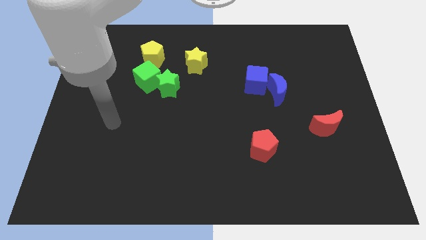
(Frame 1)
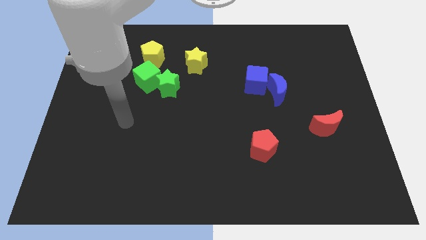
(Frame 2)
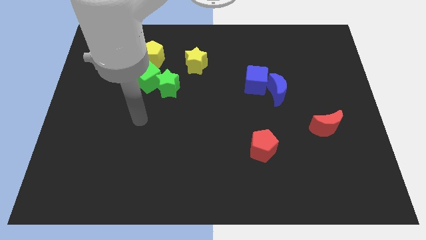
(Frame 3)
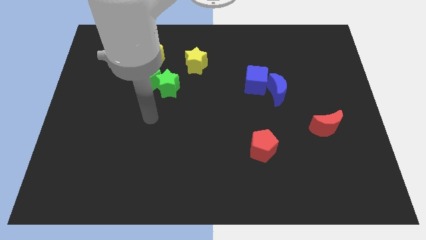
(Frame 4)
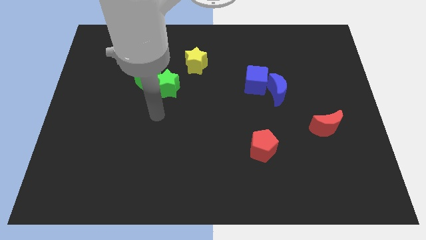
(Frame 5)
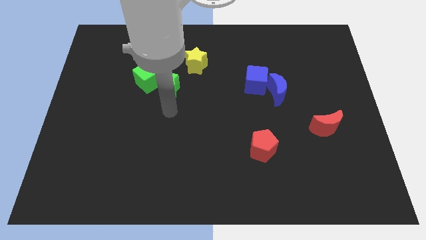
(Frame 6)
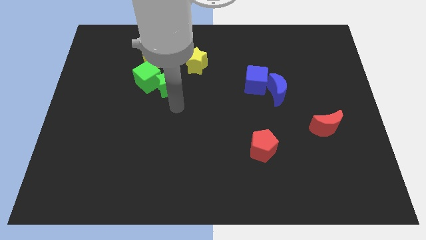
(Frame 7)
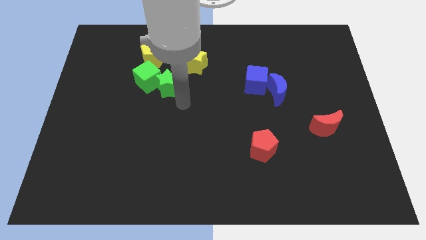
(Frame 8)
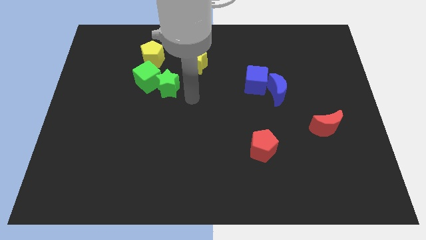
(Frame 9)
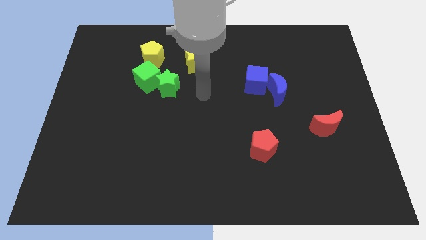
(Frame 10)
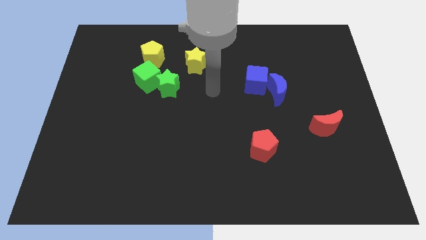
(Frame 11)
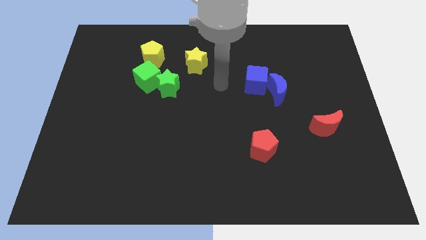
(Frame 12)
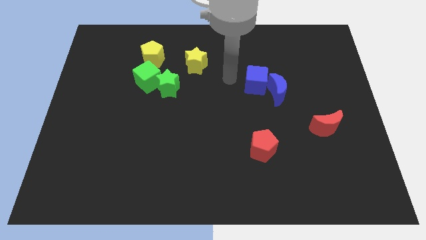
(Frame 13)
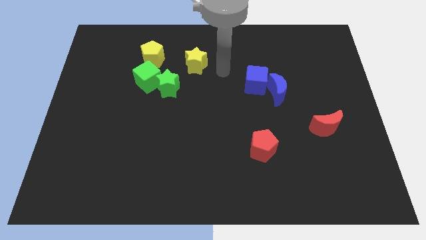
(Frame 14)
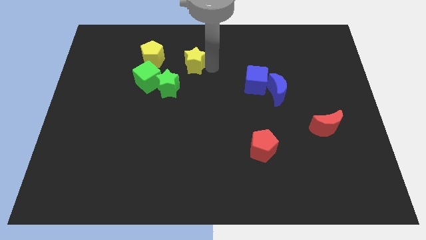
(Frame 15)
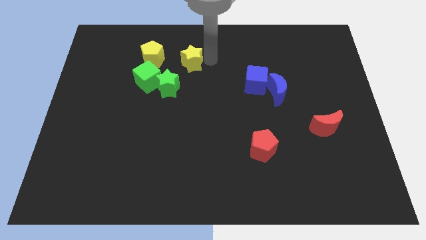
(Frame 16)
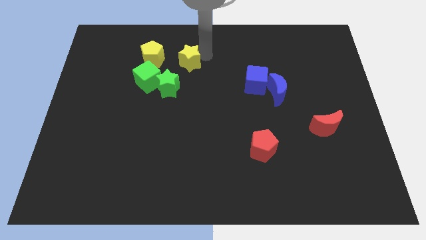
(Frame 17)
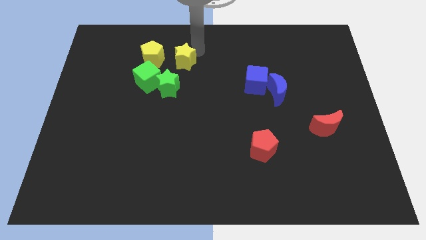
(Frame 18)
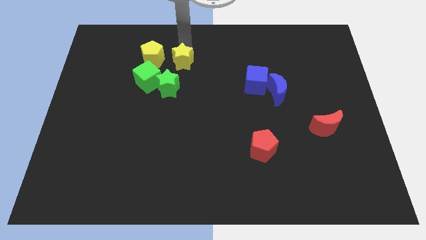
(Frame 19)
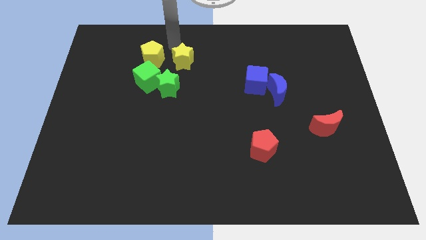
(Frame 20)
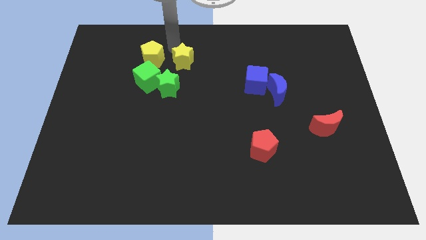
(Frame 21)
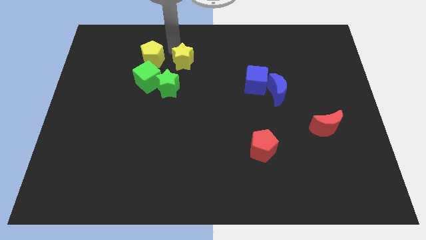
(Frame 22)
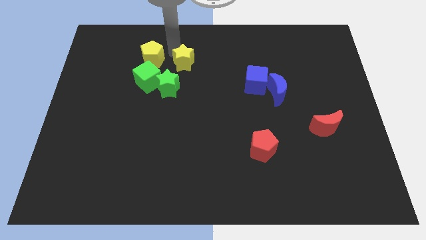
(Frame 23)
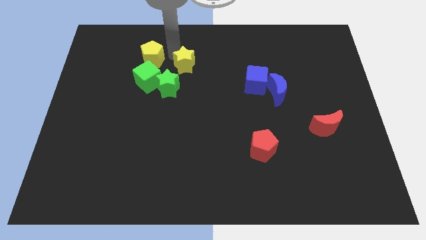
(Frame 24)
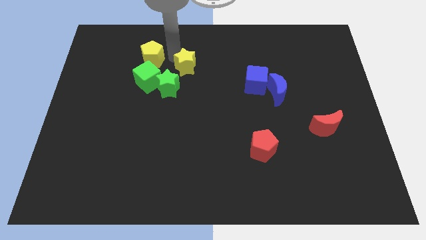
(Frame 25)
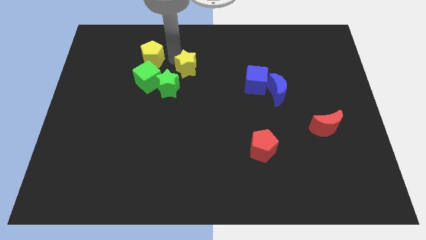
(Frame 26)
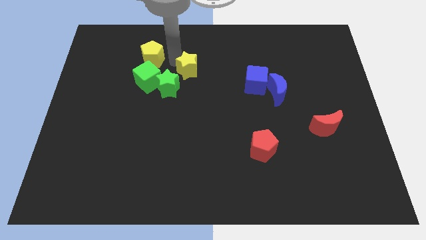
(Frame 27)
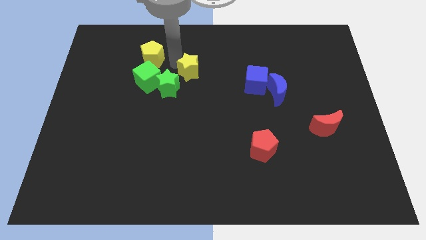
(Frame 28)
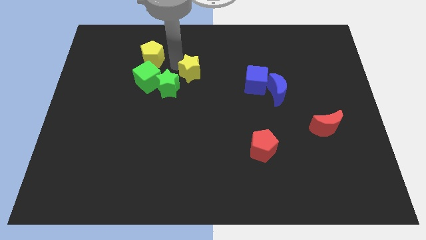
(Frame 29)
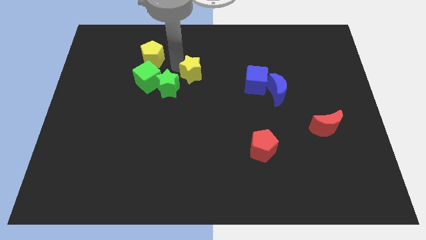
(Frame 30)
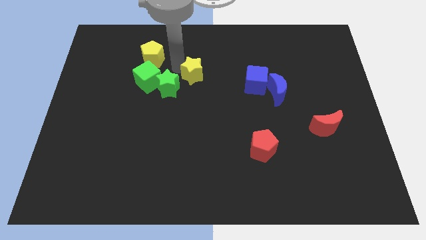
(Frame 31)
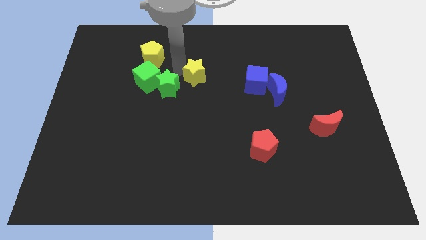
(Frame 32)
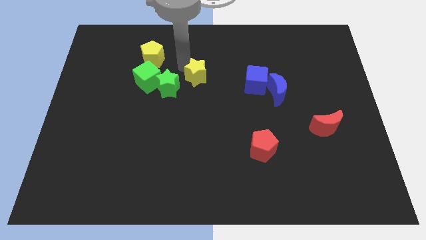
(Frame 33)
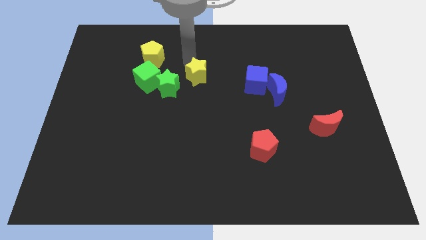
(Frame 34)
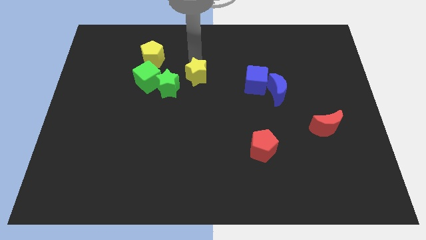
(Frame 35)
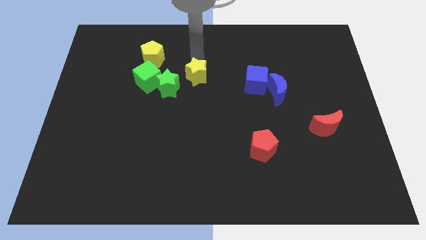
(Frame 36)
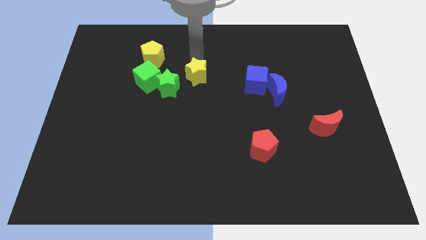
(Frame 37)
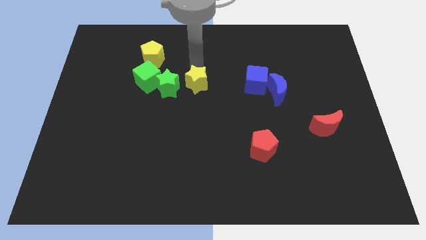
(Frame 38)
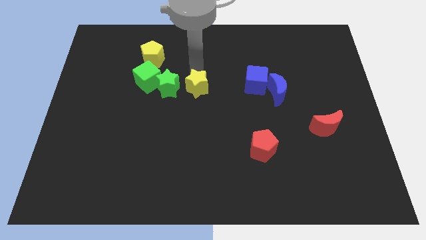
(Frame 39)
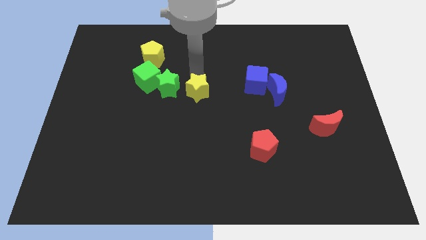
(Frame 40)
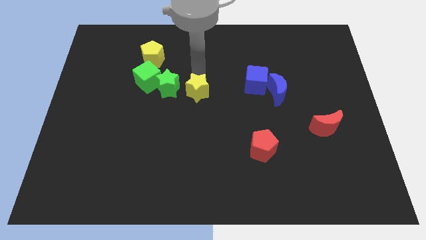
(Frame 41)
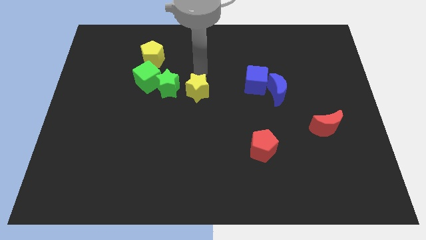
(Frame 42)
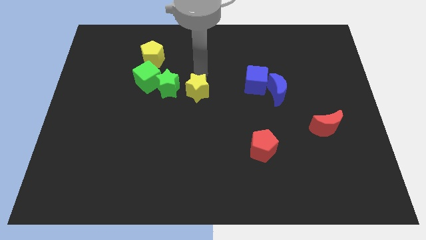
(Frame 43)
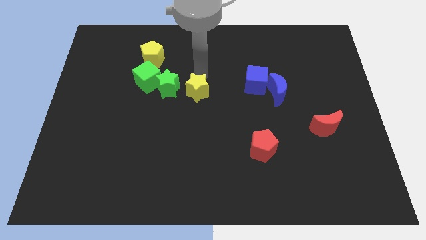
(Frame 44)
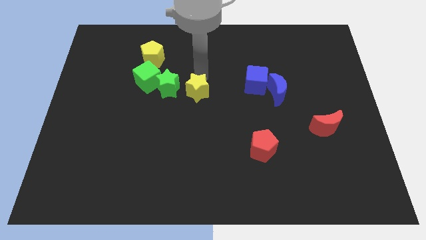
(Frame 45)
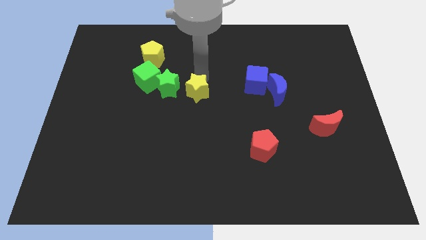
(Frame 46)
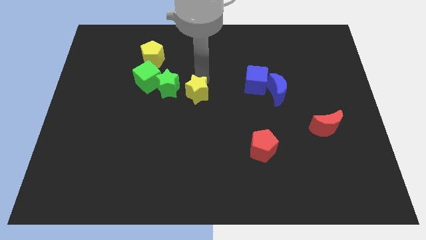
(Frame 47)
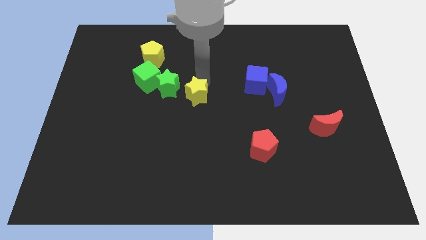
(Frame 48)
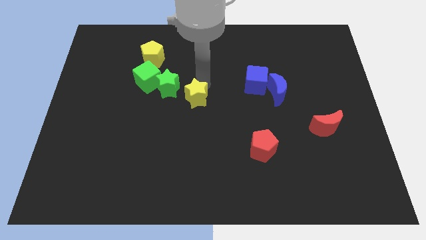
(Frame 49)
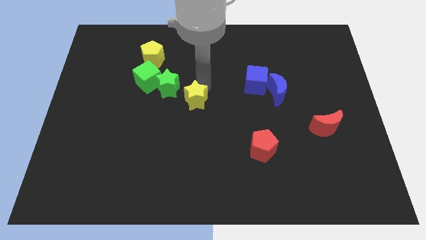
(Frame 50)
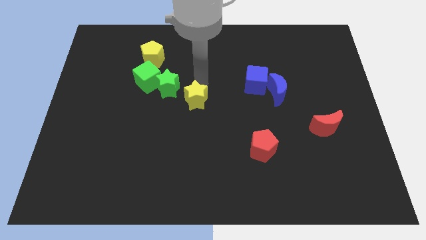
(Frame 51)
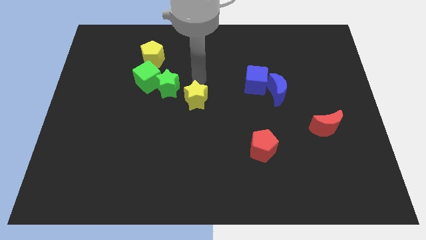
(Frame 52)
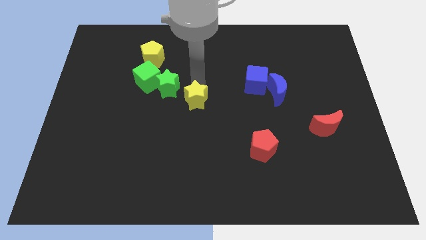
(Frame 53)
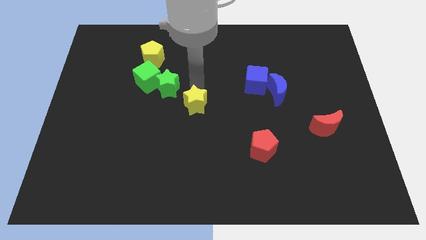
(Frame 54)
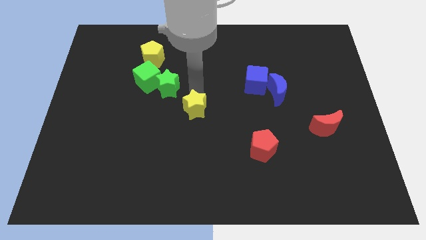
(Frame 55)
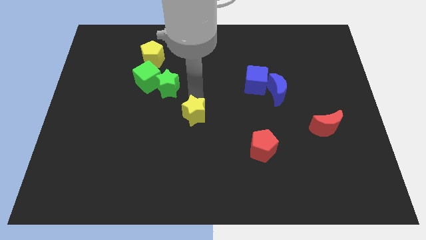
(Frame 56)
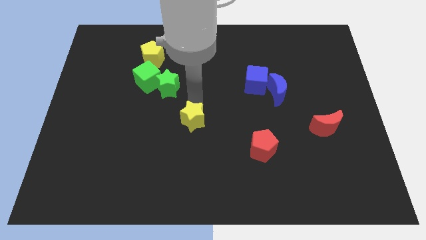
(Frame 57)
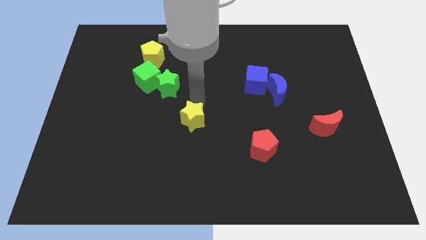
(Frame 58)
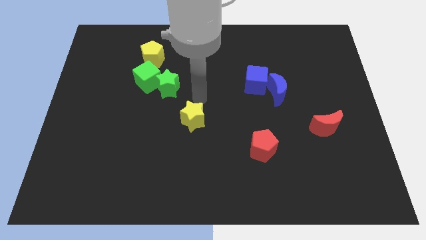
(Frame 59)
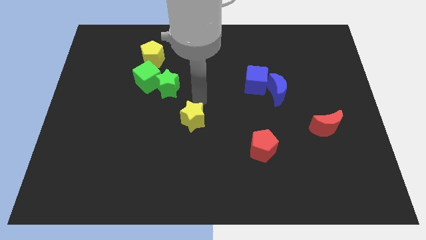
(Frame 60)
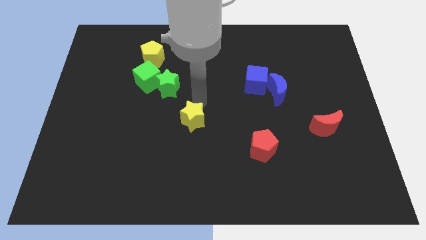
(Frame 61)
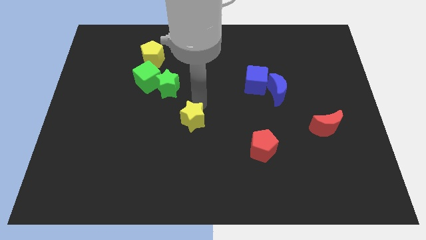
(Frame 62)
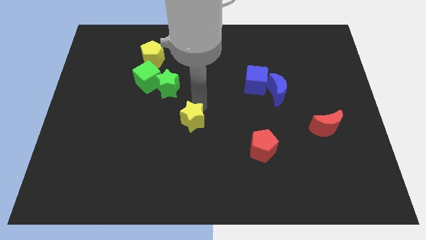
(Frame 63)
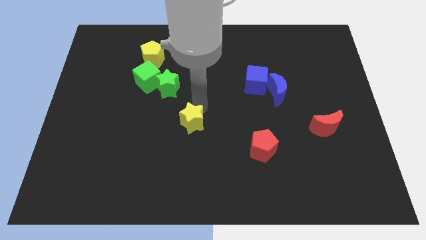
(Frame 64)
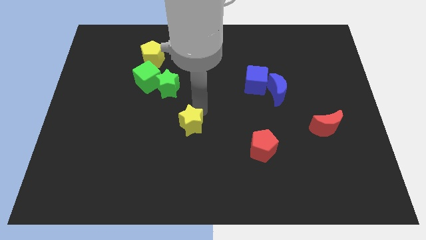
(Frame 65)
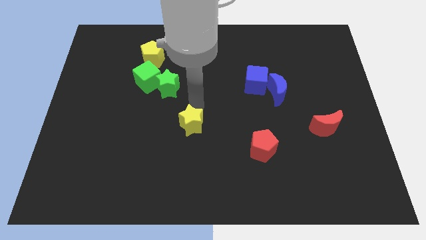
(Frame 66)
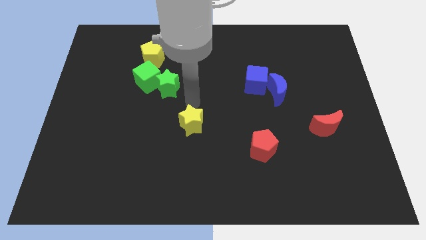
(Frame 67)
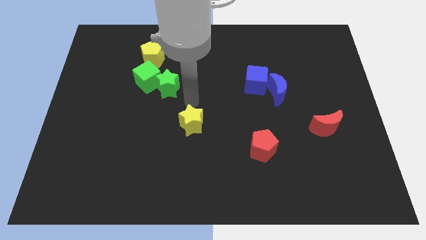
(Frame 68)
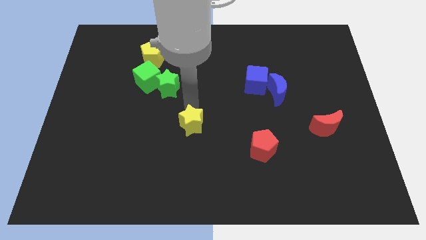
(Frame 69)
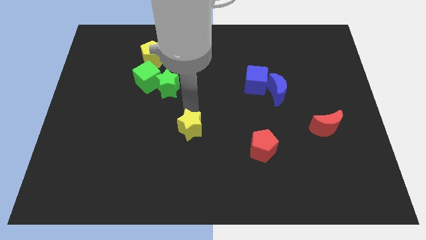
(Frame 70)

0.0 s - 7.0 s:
push the yellow star downwards

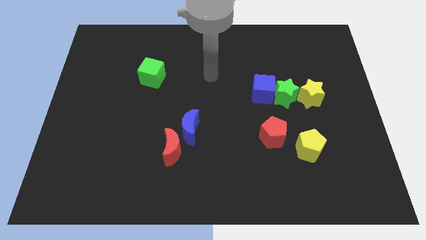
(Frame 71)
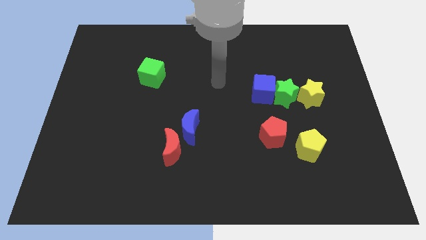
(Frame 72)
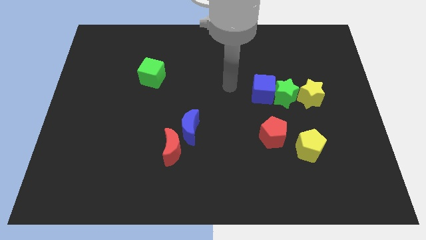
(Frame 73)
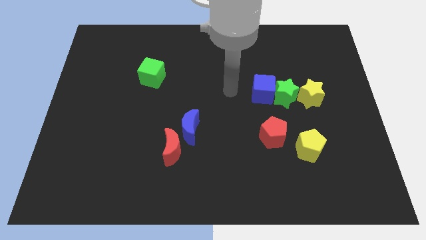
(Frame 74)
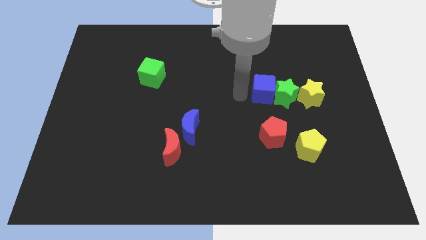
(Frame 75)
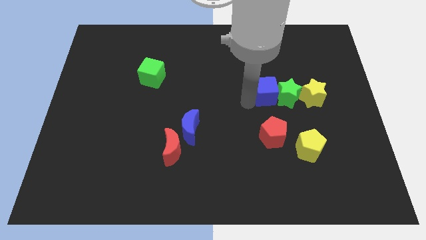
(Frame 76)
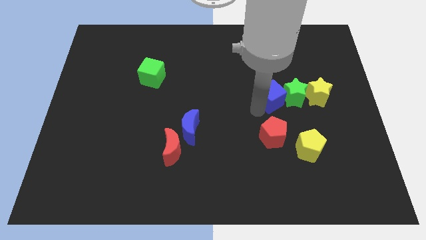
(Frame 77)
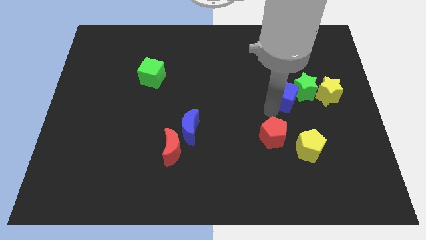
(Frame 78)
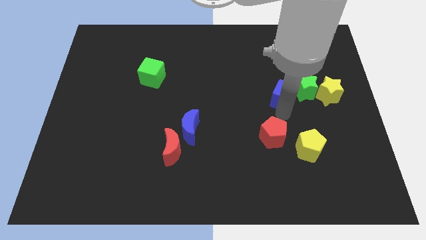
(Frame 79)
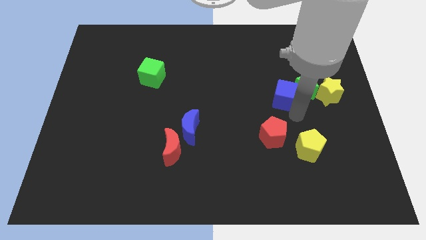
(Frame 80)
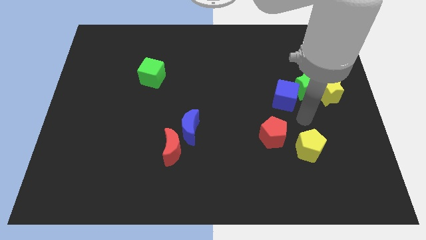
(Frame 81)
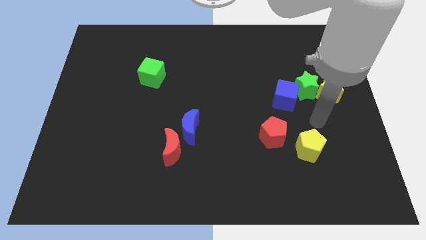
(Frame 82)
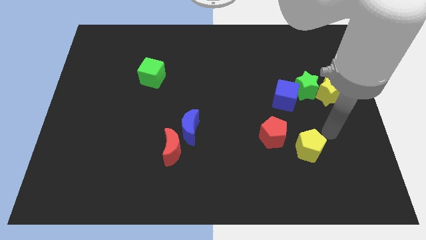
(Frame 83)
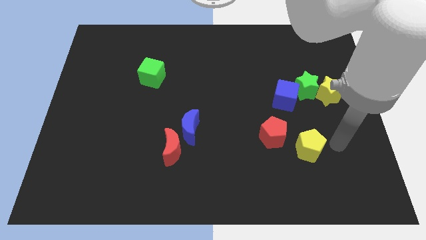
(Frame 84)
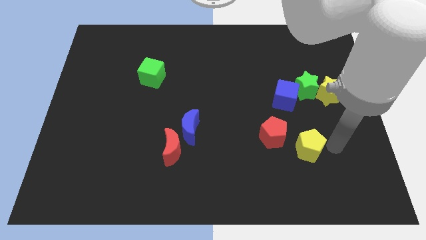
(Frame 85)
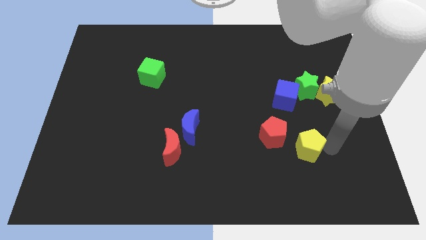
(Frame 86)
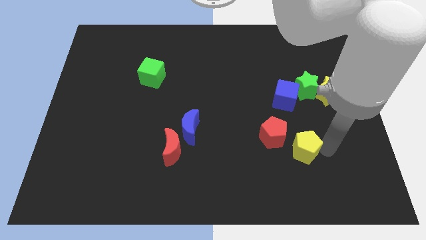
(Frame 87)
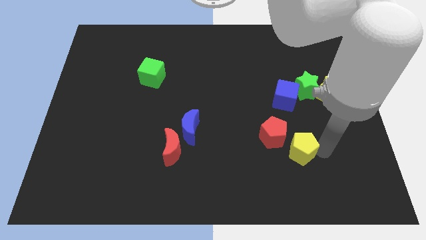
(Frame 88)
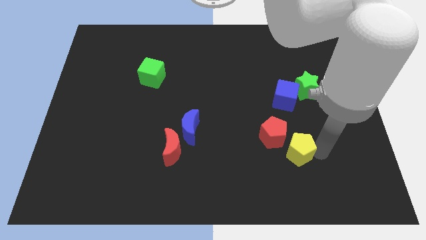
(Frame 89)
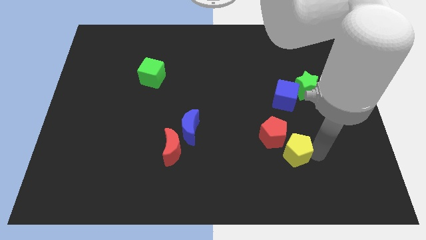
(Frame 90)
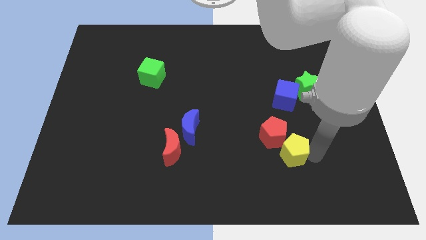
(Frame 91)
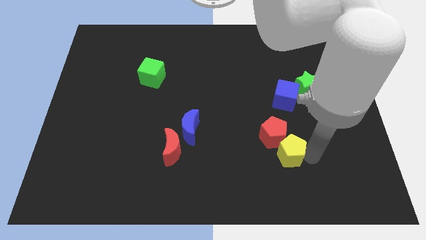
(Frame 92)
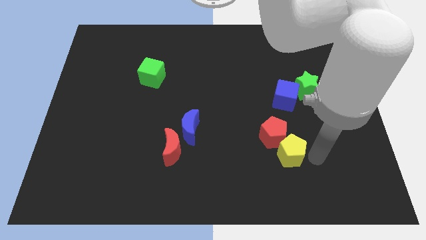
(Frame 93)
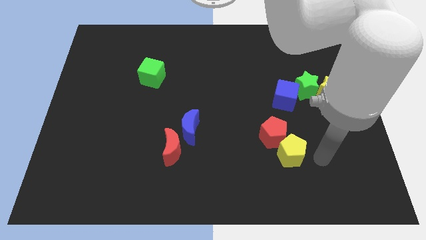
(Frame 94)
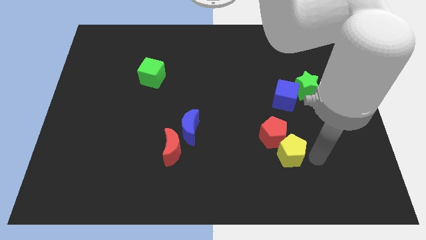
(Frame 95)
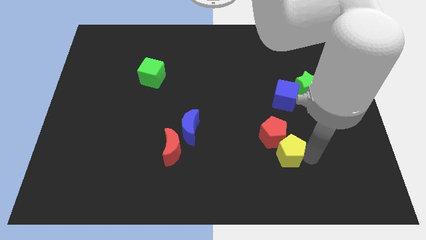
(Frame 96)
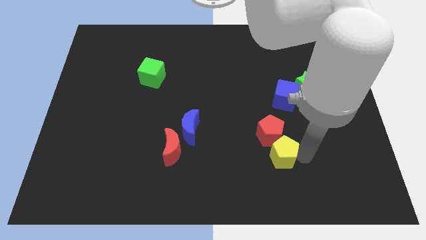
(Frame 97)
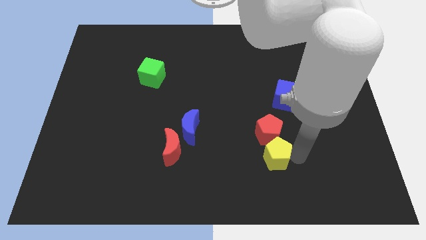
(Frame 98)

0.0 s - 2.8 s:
slide the yellow pentagon to the left a little
